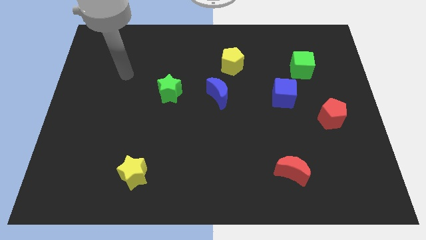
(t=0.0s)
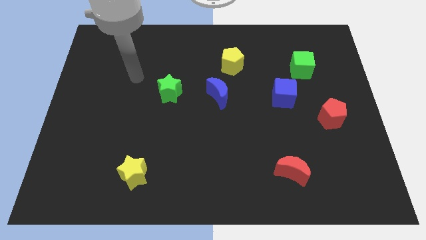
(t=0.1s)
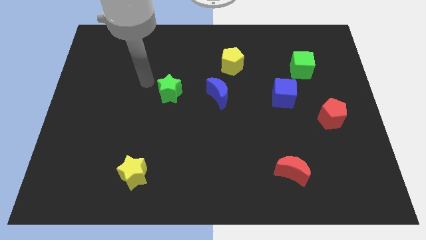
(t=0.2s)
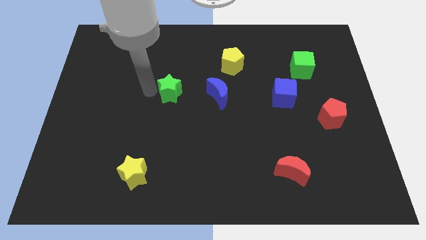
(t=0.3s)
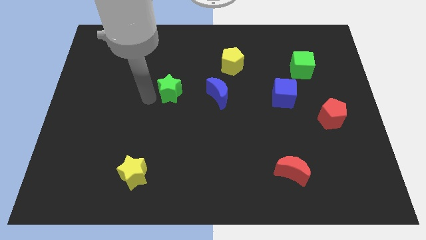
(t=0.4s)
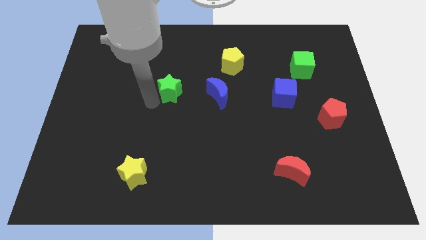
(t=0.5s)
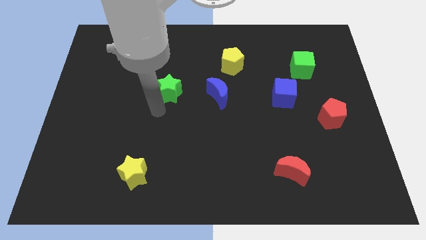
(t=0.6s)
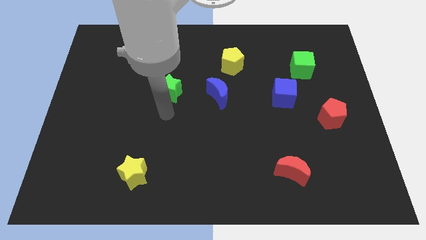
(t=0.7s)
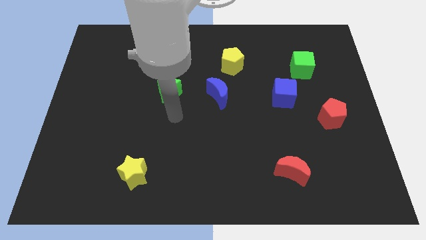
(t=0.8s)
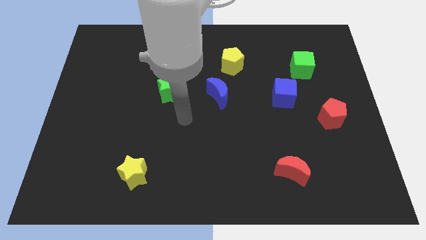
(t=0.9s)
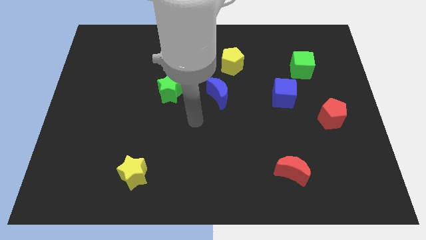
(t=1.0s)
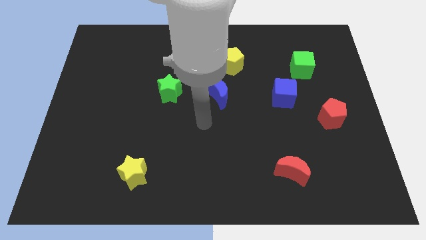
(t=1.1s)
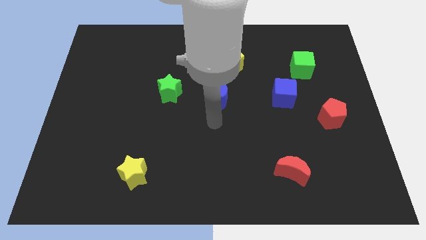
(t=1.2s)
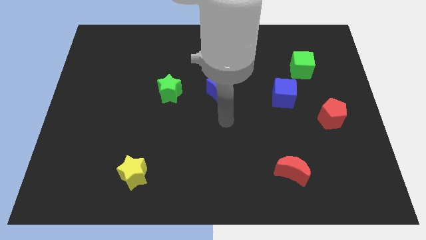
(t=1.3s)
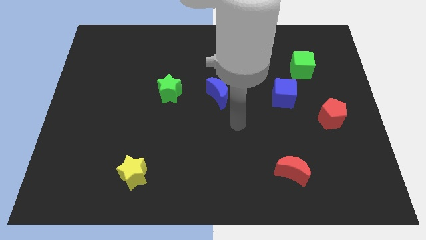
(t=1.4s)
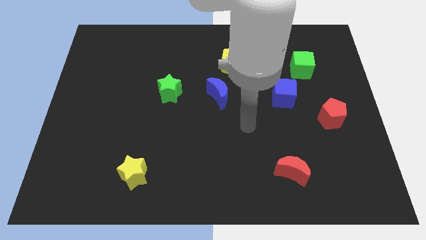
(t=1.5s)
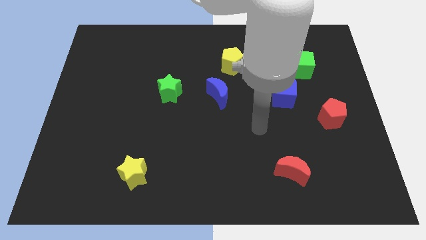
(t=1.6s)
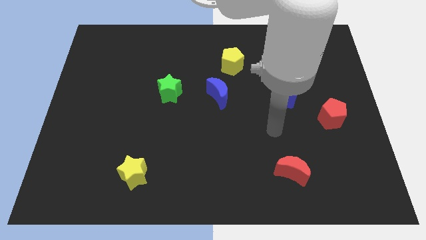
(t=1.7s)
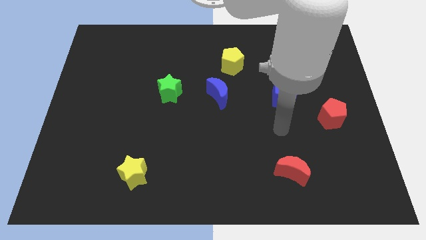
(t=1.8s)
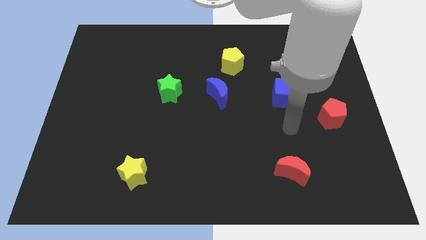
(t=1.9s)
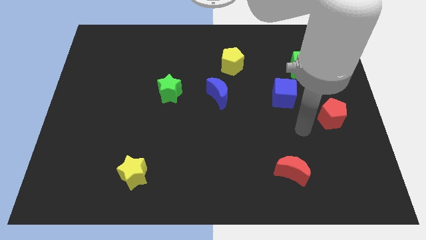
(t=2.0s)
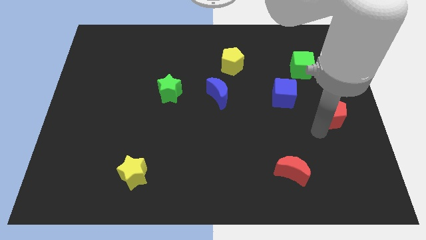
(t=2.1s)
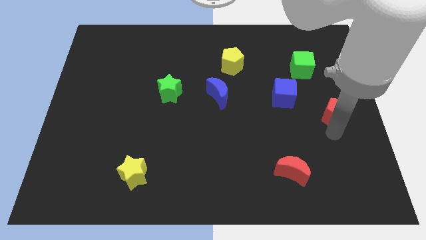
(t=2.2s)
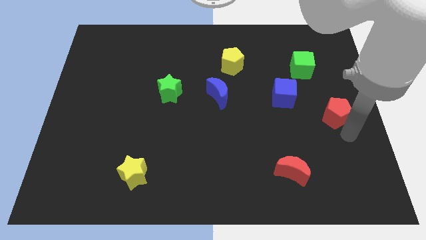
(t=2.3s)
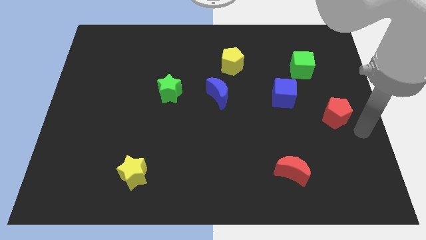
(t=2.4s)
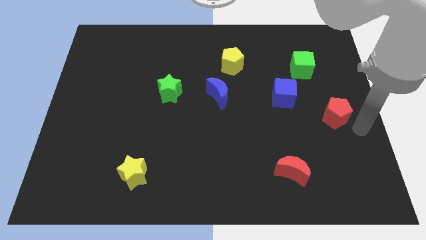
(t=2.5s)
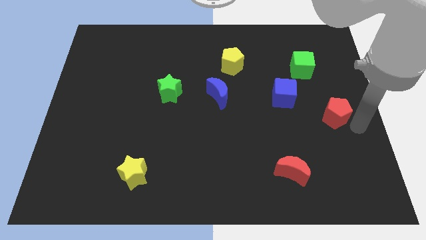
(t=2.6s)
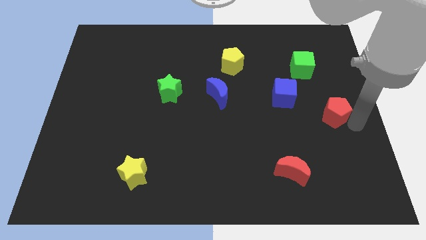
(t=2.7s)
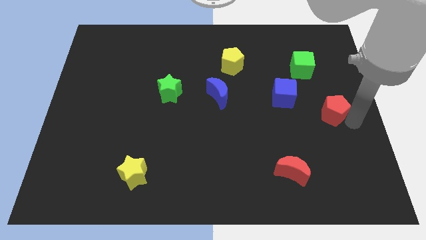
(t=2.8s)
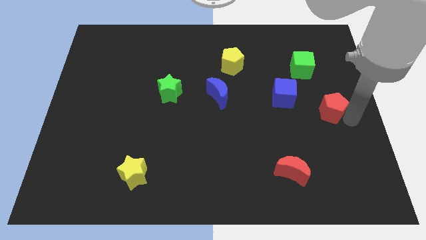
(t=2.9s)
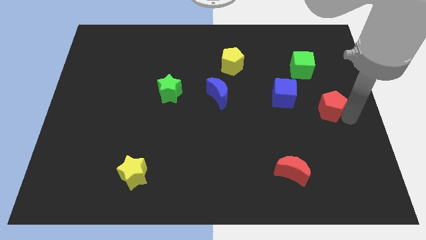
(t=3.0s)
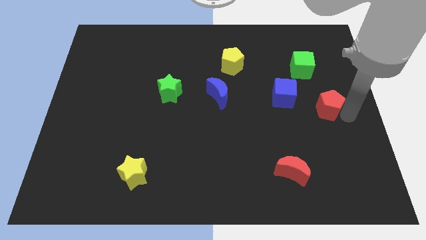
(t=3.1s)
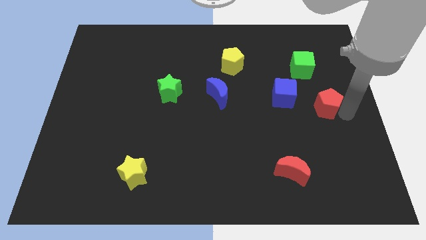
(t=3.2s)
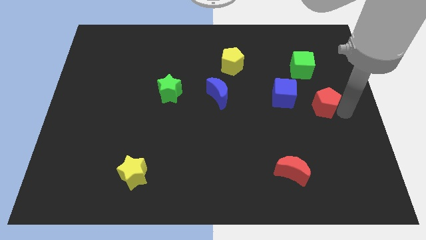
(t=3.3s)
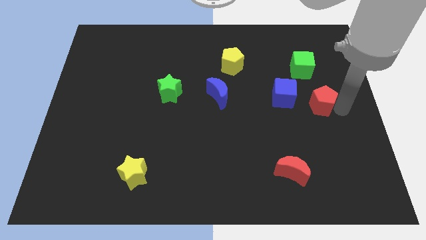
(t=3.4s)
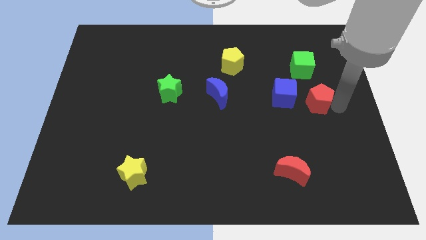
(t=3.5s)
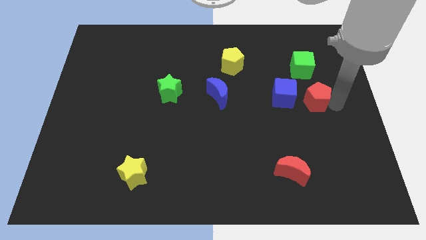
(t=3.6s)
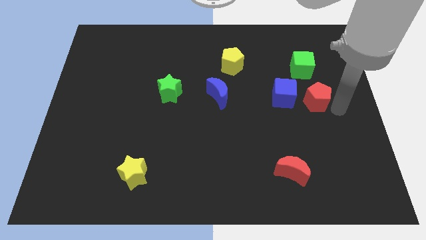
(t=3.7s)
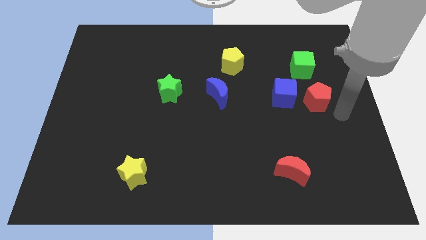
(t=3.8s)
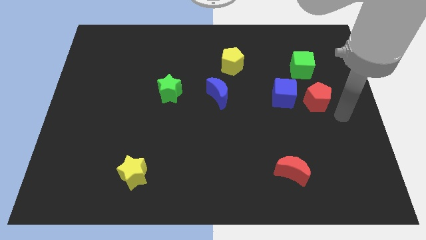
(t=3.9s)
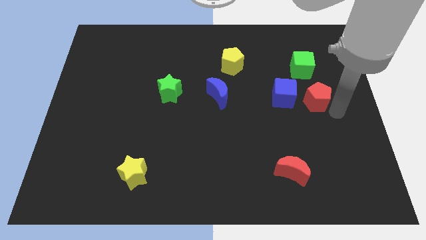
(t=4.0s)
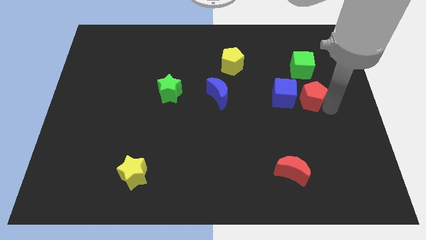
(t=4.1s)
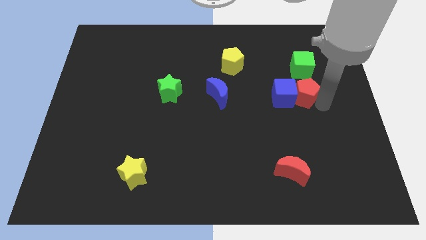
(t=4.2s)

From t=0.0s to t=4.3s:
push the red pentagon somewhat up and then left

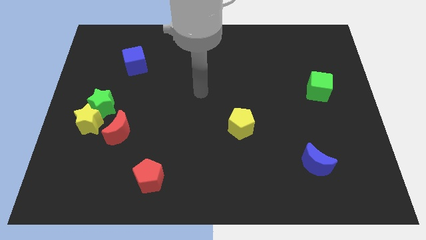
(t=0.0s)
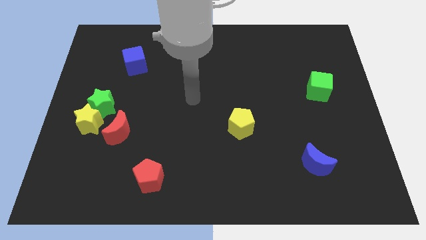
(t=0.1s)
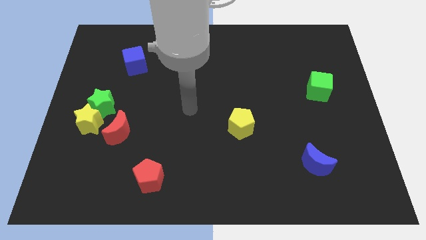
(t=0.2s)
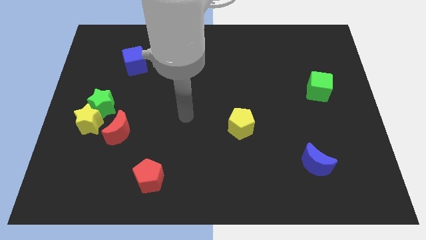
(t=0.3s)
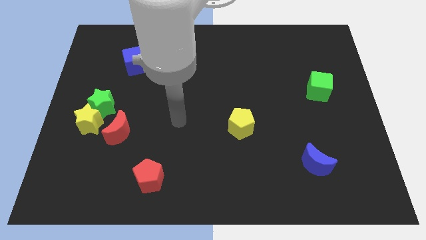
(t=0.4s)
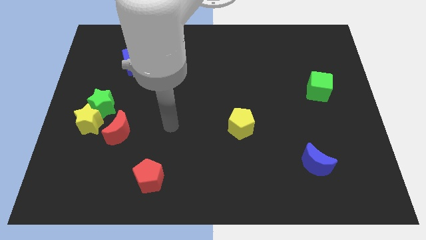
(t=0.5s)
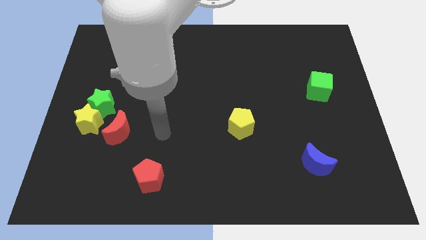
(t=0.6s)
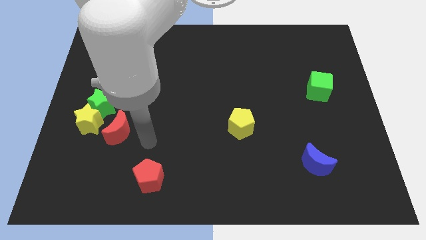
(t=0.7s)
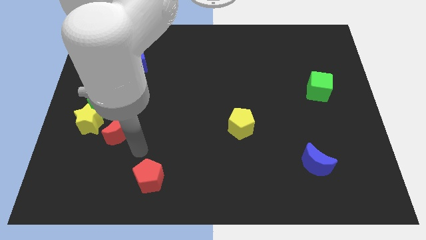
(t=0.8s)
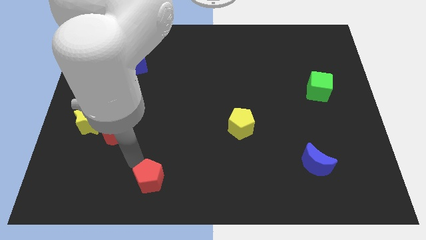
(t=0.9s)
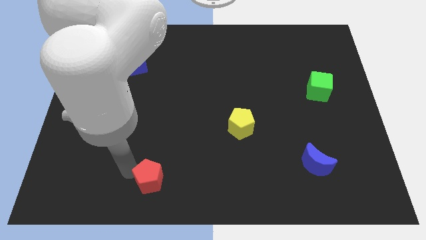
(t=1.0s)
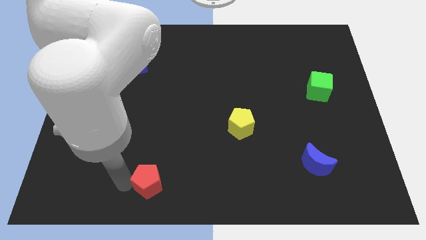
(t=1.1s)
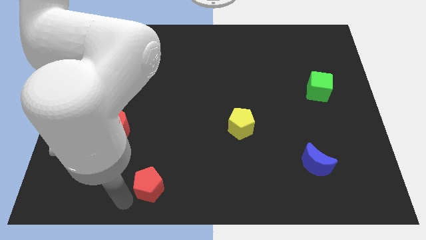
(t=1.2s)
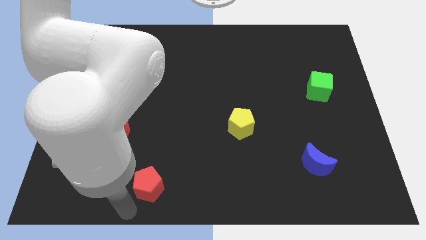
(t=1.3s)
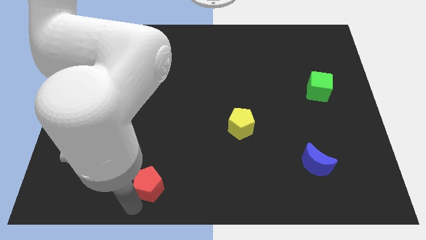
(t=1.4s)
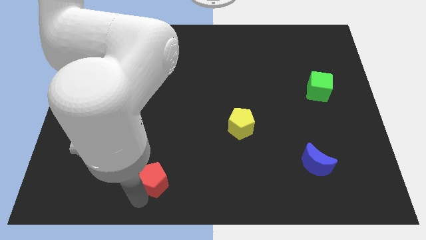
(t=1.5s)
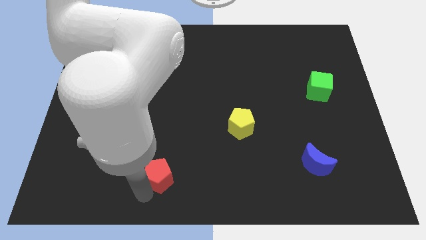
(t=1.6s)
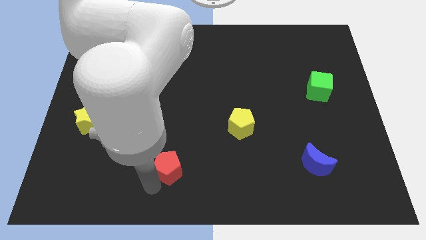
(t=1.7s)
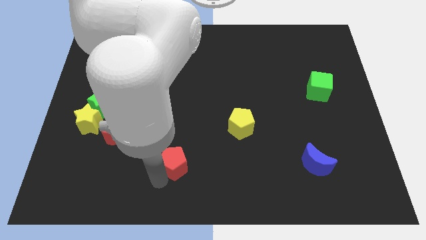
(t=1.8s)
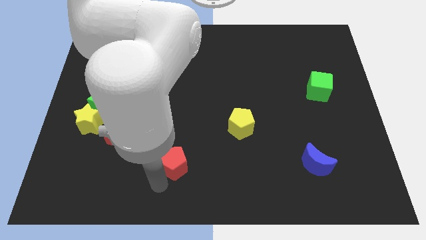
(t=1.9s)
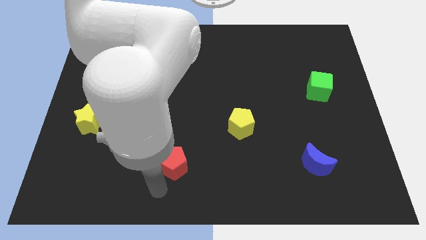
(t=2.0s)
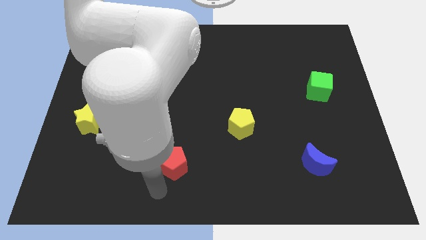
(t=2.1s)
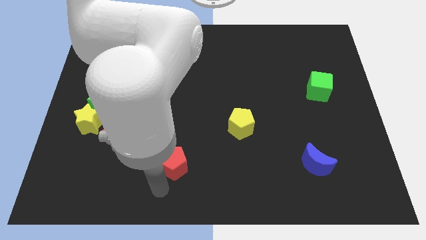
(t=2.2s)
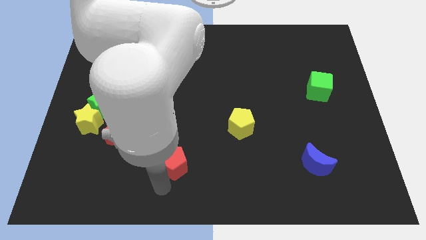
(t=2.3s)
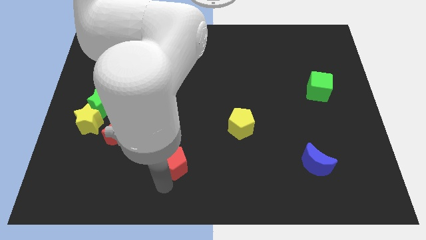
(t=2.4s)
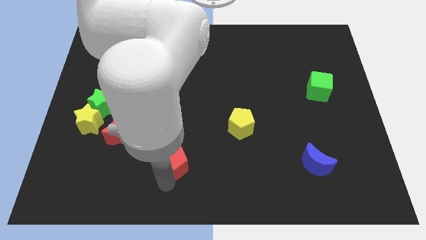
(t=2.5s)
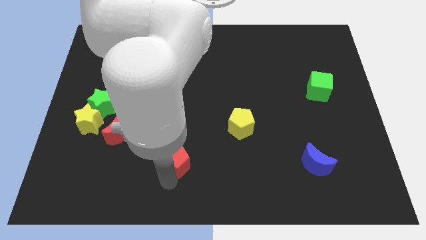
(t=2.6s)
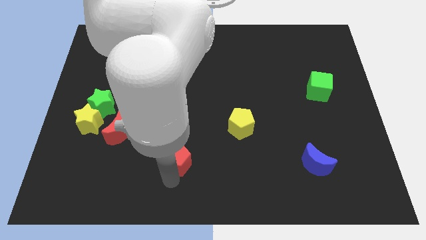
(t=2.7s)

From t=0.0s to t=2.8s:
move the red pentagon somewhat up and right

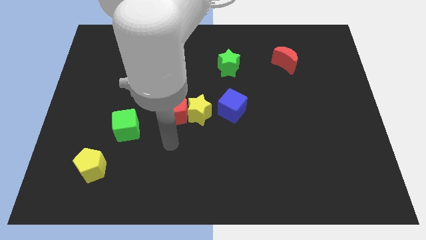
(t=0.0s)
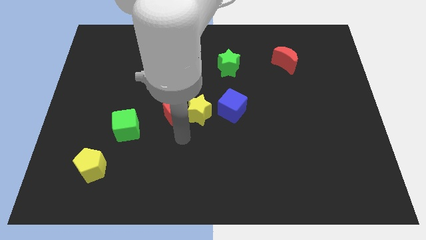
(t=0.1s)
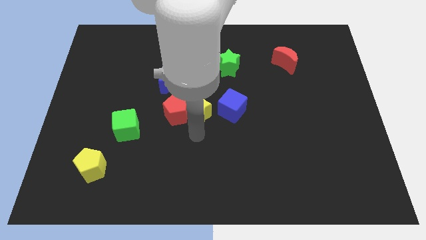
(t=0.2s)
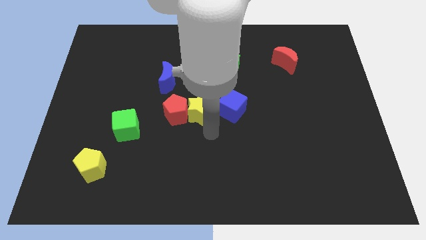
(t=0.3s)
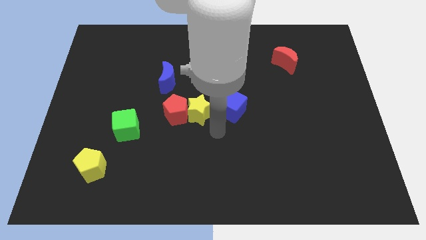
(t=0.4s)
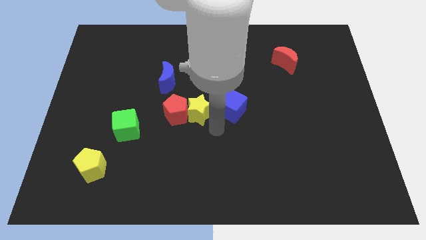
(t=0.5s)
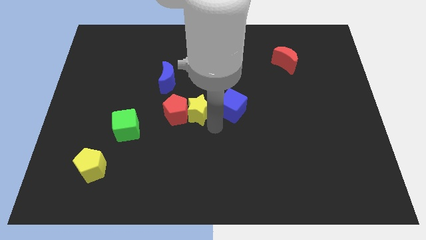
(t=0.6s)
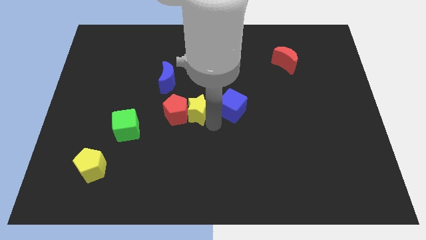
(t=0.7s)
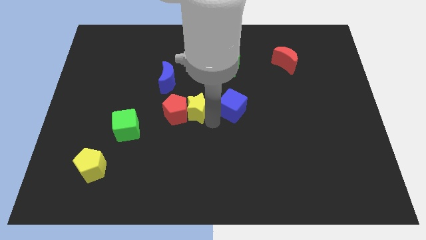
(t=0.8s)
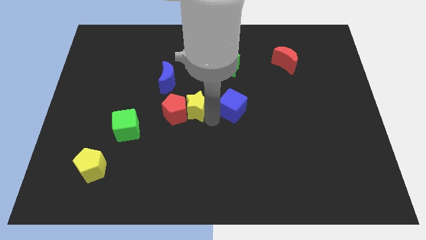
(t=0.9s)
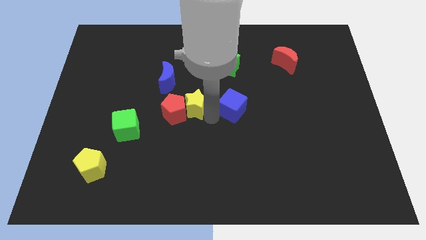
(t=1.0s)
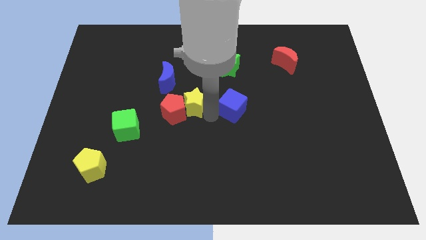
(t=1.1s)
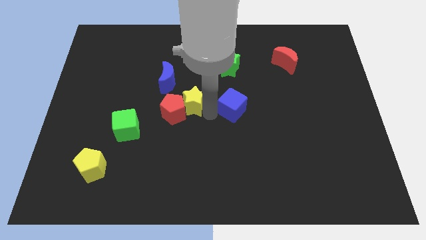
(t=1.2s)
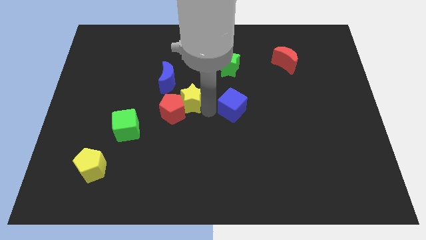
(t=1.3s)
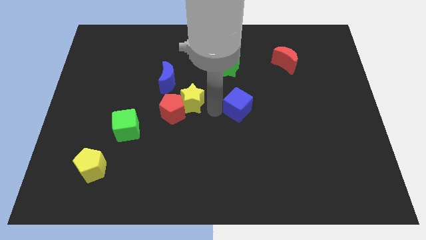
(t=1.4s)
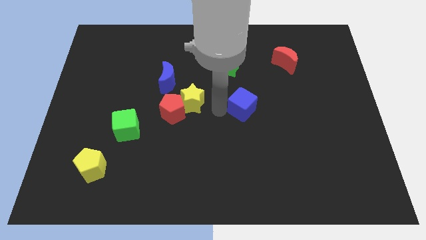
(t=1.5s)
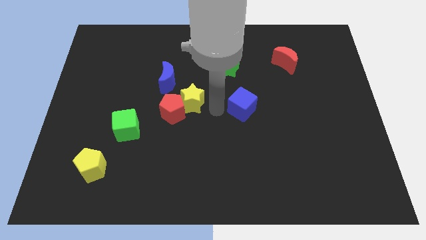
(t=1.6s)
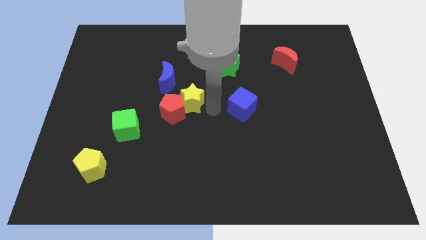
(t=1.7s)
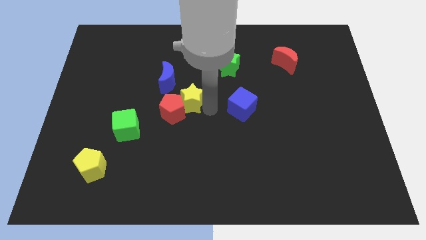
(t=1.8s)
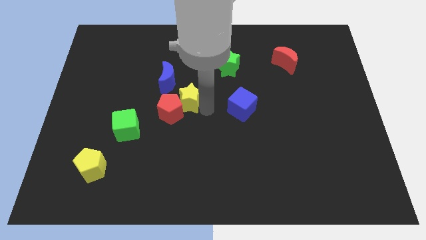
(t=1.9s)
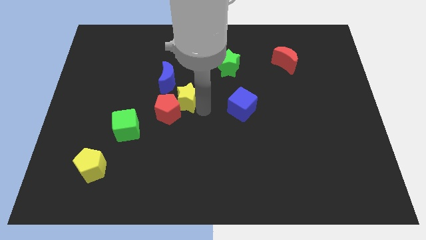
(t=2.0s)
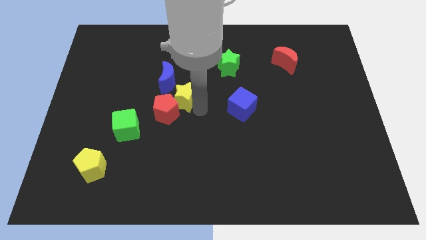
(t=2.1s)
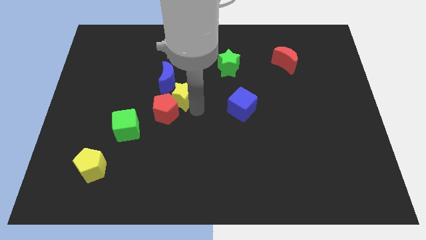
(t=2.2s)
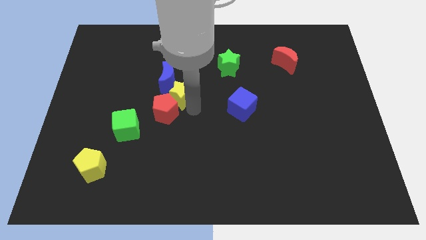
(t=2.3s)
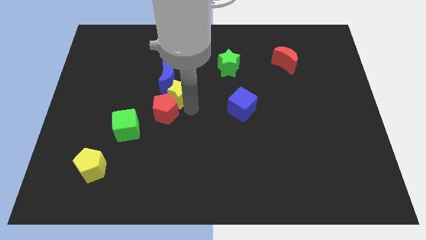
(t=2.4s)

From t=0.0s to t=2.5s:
push the yellow star up and left a bit
